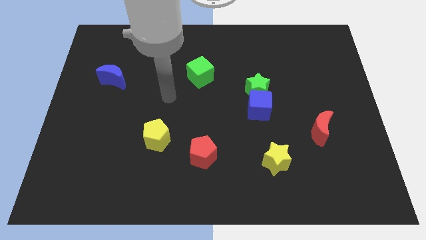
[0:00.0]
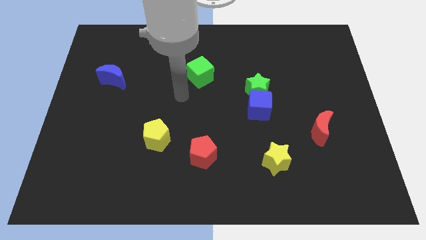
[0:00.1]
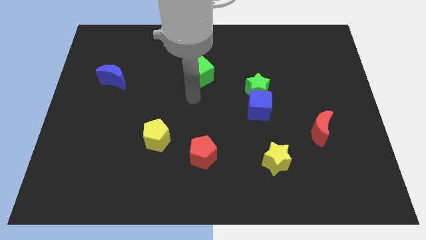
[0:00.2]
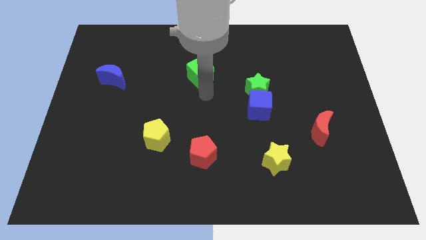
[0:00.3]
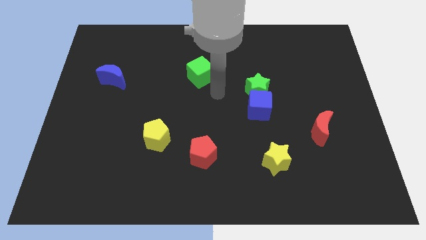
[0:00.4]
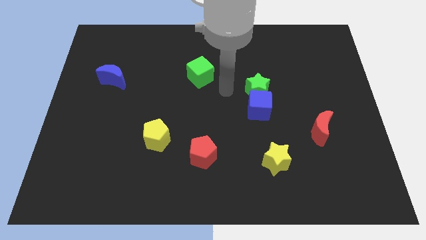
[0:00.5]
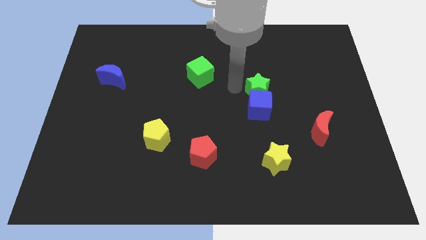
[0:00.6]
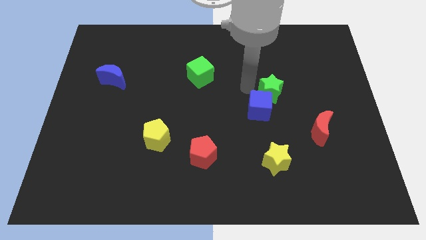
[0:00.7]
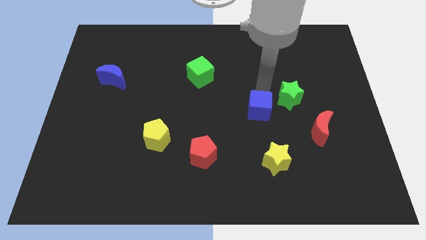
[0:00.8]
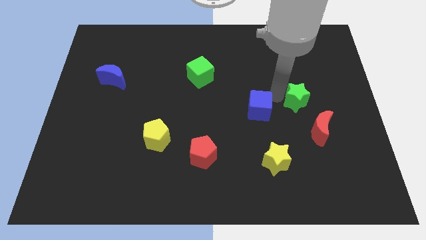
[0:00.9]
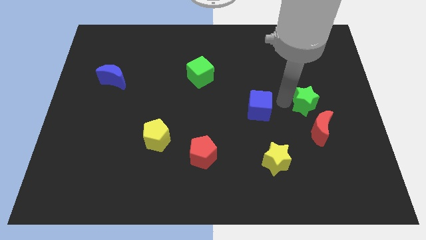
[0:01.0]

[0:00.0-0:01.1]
pull the blue cube apart from the green star

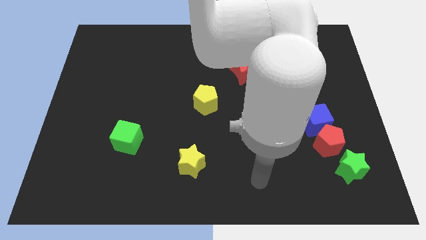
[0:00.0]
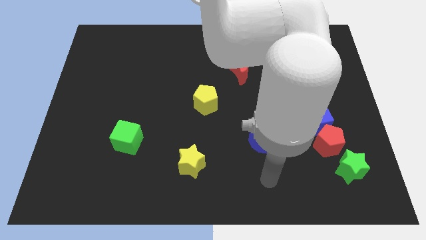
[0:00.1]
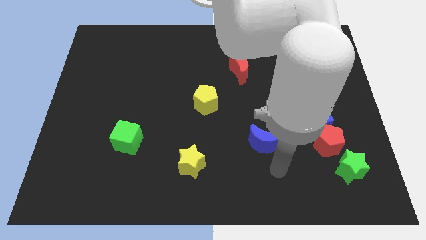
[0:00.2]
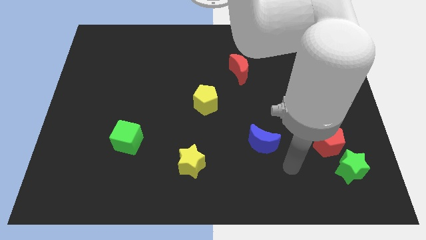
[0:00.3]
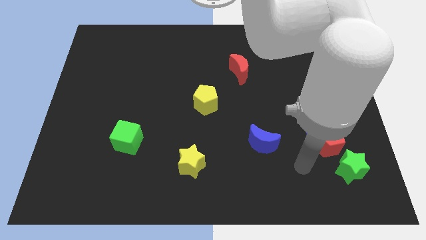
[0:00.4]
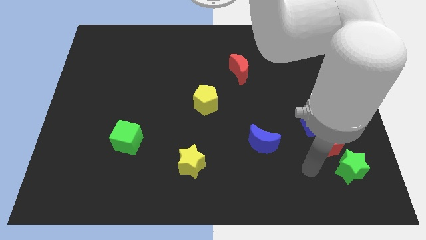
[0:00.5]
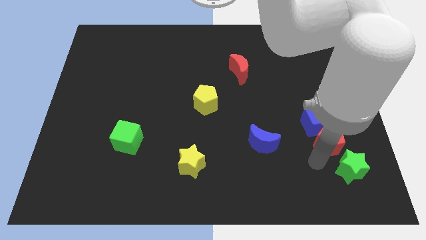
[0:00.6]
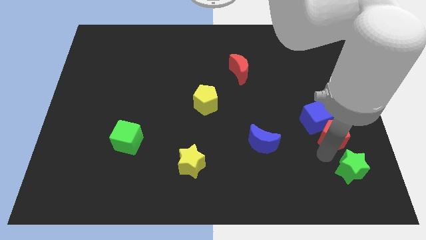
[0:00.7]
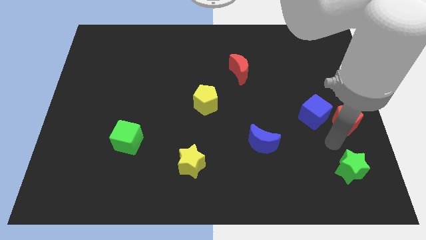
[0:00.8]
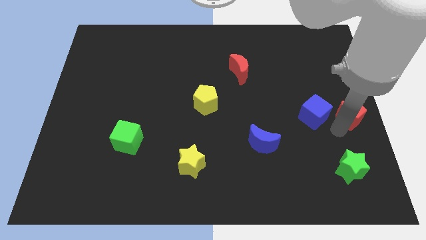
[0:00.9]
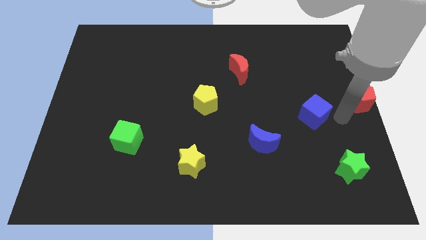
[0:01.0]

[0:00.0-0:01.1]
pull the blue cube apart from the red pentagon

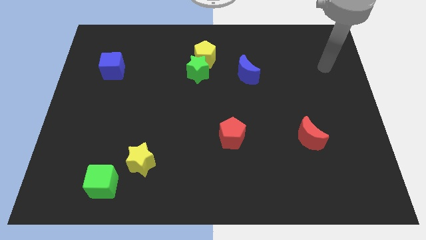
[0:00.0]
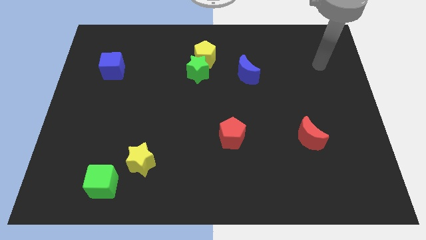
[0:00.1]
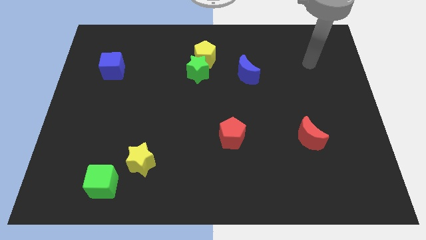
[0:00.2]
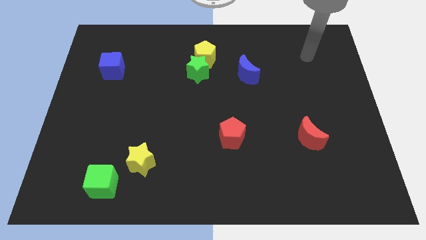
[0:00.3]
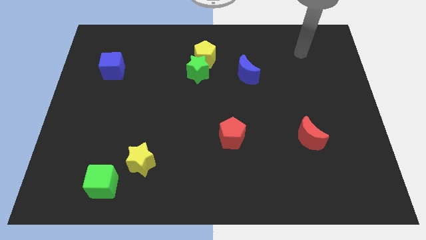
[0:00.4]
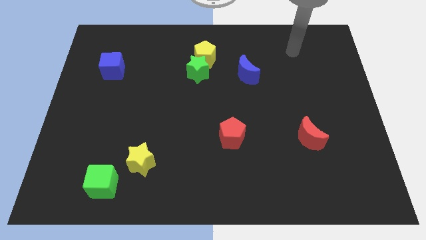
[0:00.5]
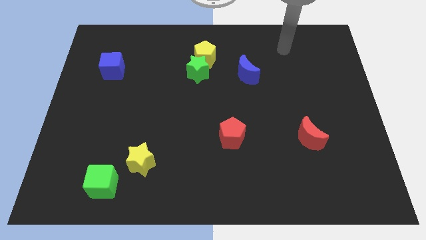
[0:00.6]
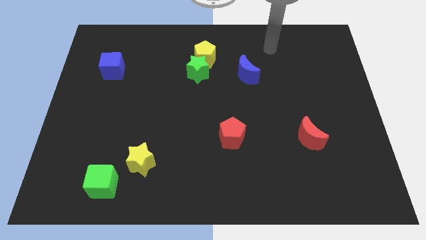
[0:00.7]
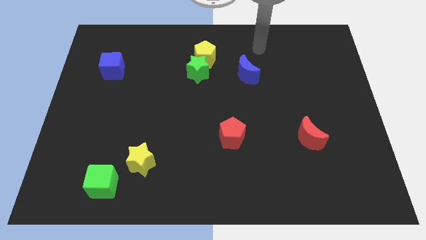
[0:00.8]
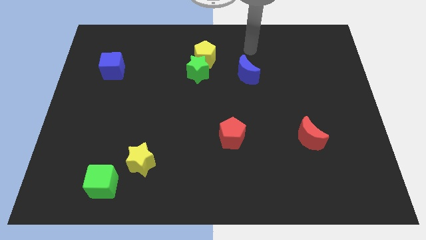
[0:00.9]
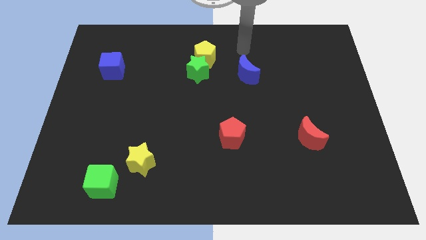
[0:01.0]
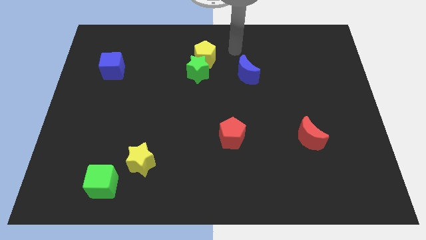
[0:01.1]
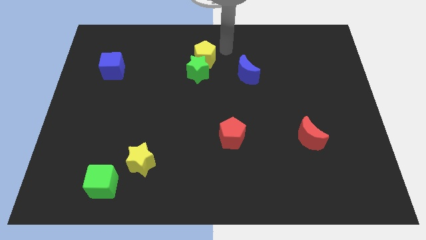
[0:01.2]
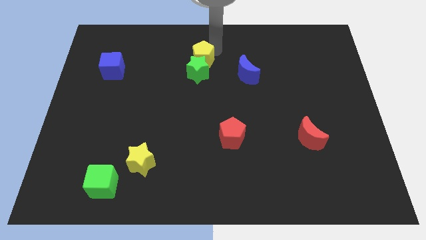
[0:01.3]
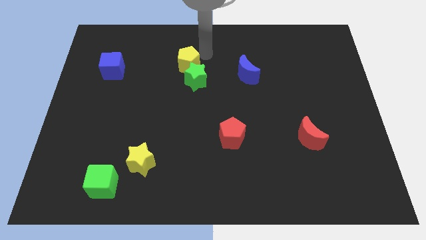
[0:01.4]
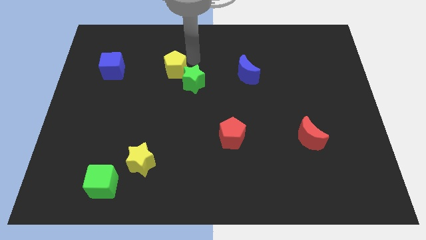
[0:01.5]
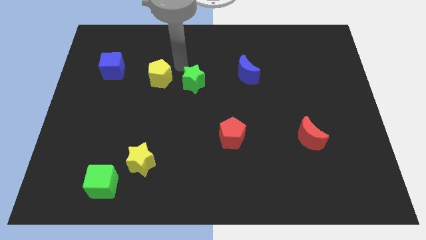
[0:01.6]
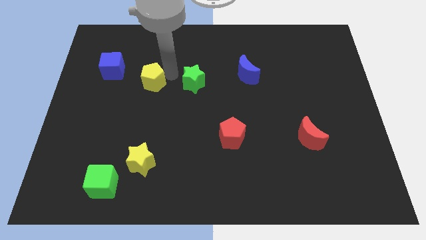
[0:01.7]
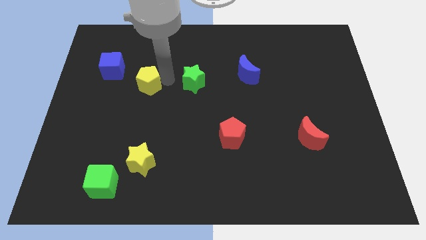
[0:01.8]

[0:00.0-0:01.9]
move the green star away from the yellow pentagon

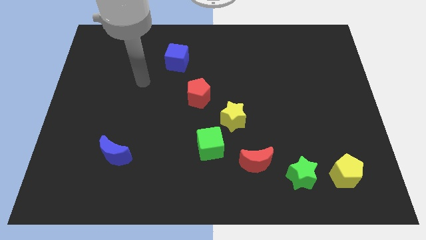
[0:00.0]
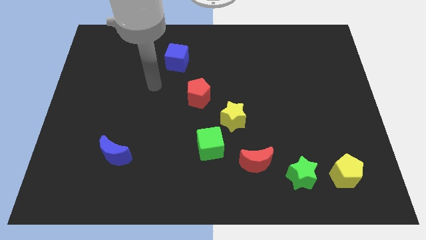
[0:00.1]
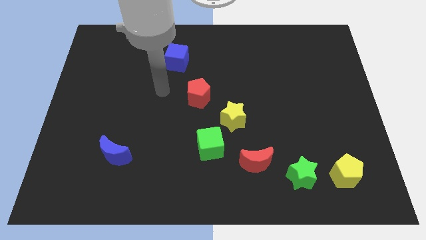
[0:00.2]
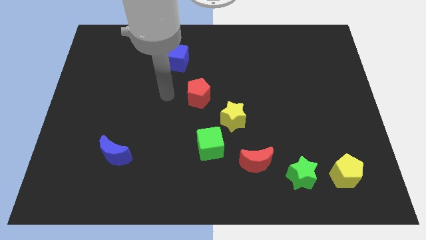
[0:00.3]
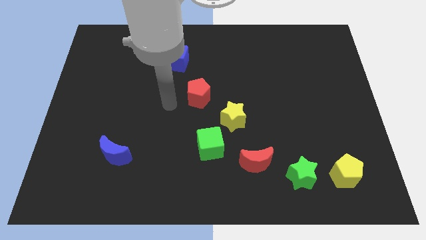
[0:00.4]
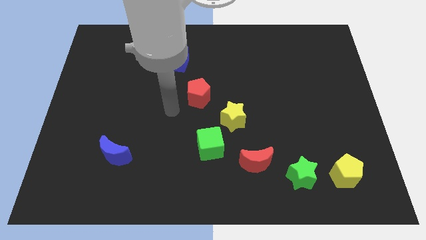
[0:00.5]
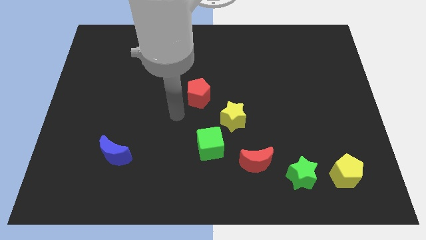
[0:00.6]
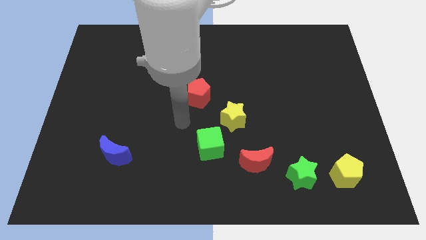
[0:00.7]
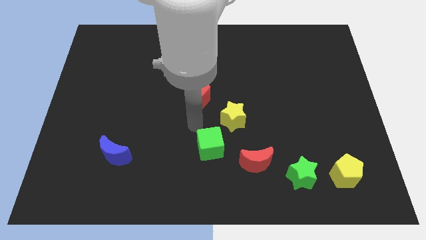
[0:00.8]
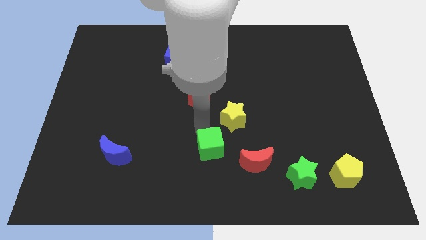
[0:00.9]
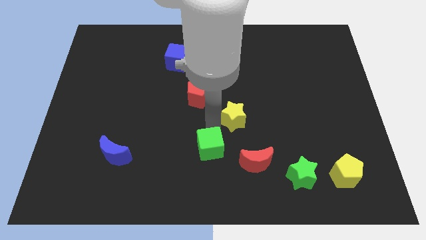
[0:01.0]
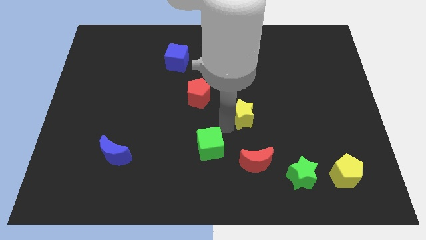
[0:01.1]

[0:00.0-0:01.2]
pull the green cube apart from the yellow star

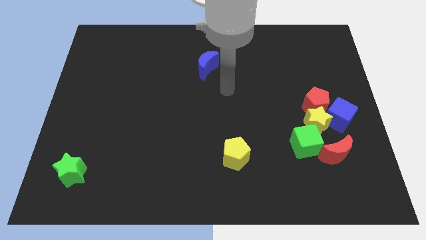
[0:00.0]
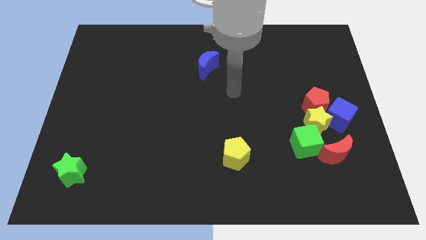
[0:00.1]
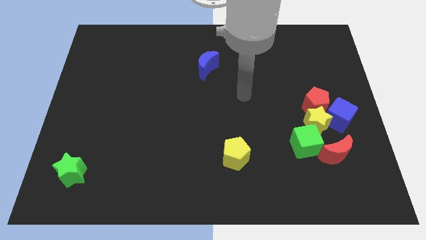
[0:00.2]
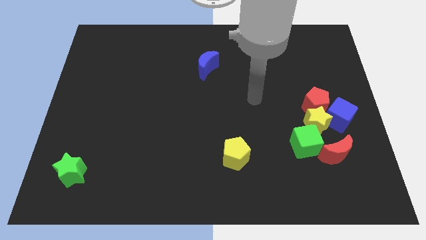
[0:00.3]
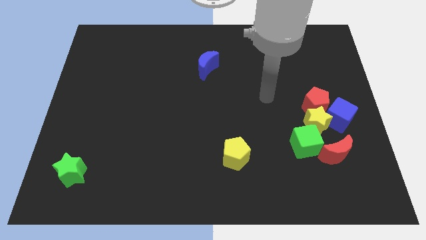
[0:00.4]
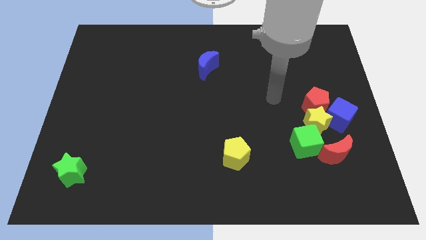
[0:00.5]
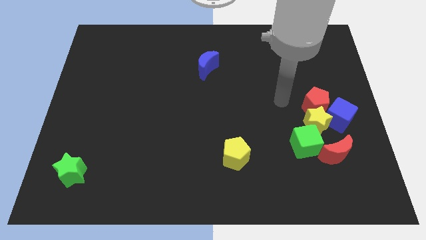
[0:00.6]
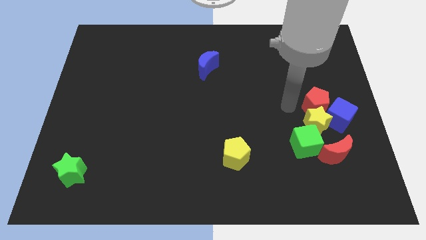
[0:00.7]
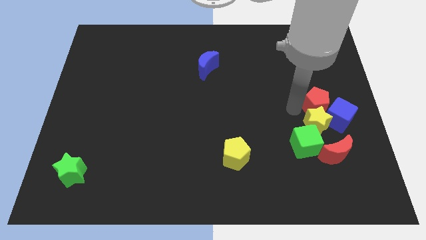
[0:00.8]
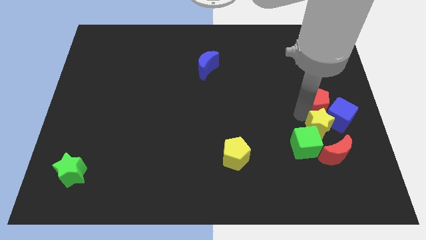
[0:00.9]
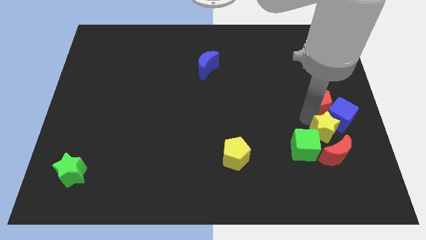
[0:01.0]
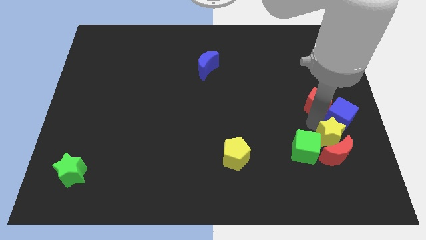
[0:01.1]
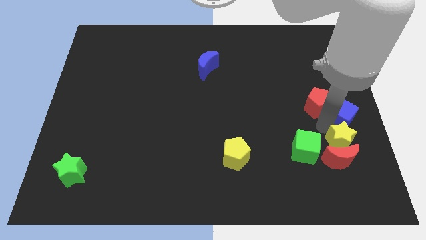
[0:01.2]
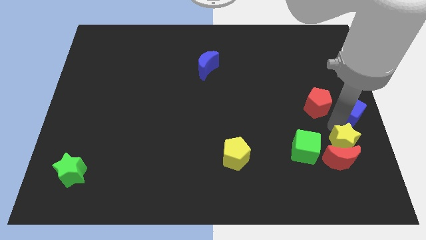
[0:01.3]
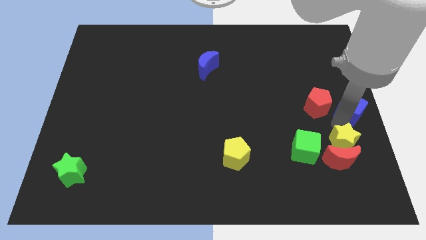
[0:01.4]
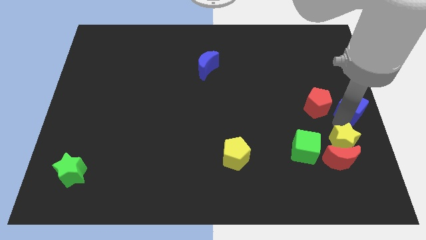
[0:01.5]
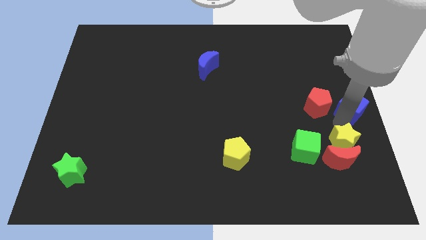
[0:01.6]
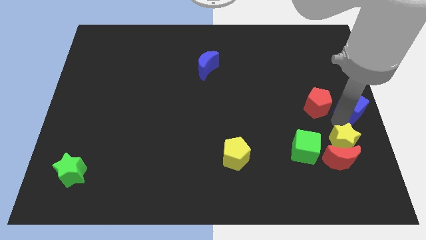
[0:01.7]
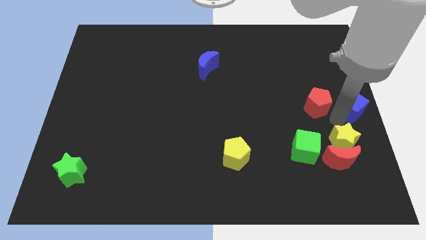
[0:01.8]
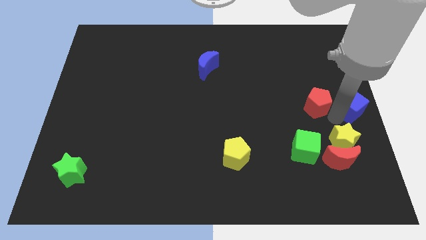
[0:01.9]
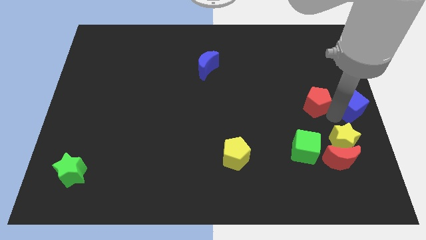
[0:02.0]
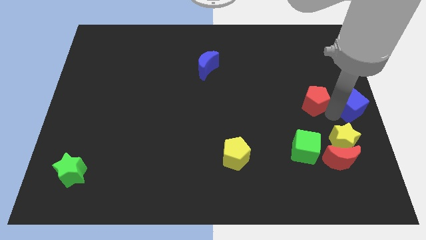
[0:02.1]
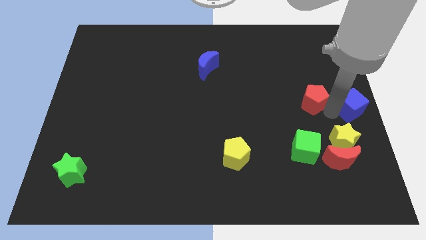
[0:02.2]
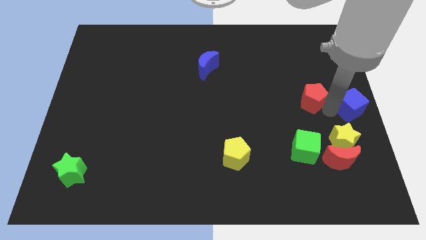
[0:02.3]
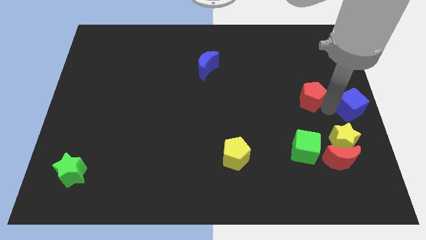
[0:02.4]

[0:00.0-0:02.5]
pull the red pentagon apart from the yellow star and blue cube

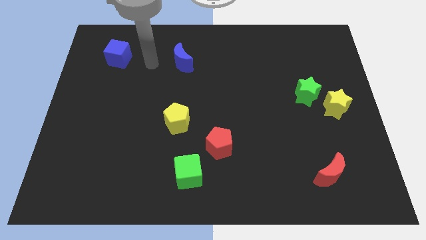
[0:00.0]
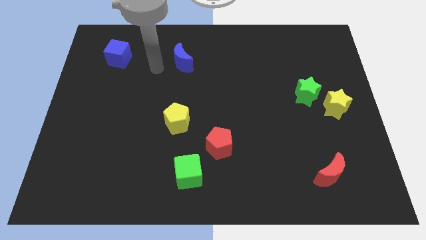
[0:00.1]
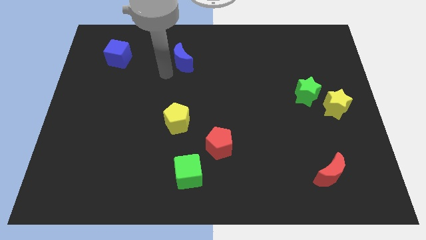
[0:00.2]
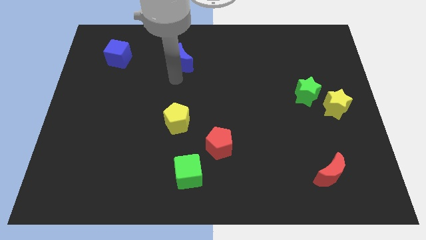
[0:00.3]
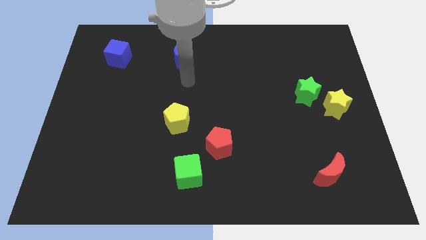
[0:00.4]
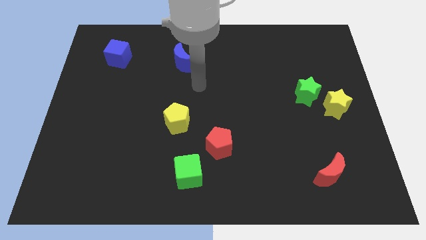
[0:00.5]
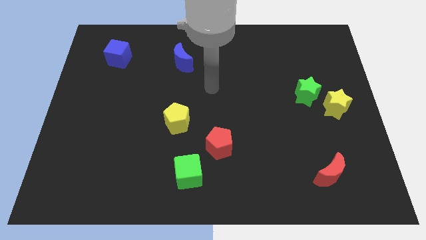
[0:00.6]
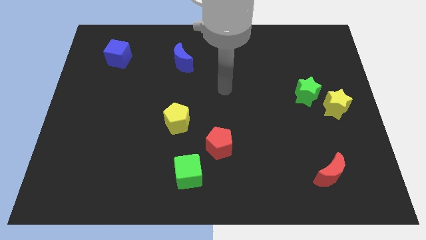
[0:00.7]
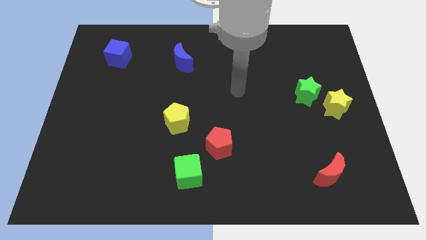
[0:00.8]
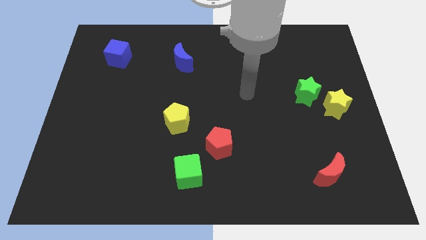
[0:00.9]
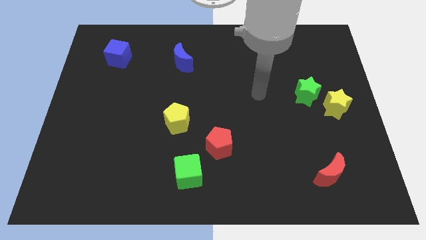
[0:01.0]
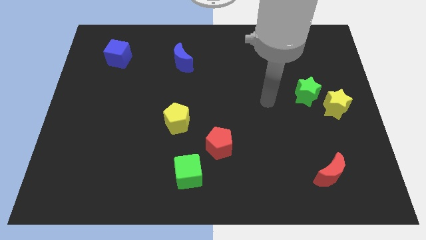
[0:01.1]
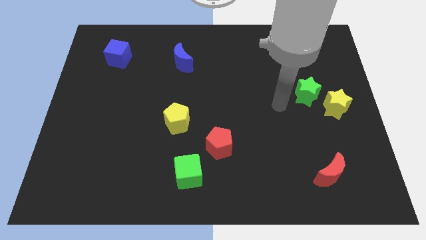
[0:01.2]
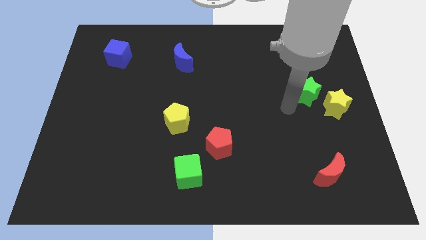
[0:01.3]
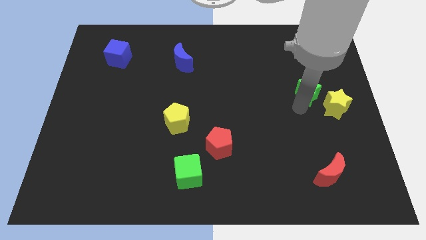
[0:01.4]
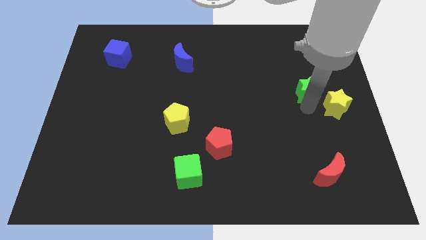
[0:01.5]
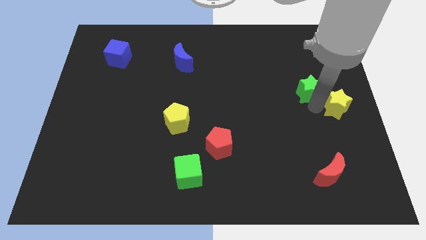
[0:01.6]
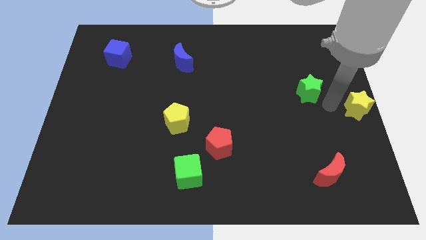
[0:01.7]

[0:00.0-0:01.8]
pull the green star apart from the yellow star
